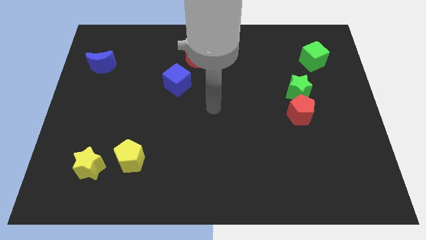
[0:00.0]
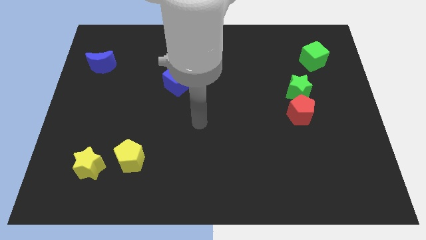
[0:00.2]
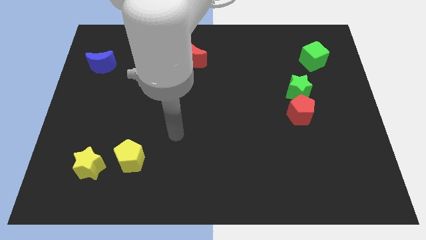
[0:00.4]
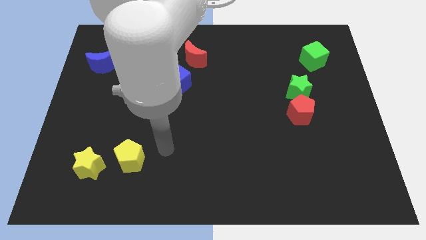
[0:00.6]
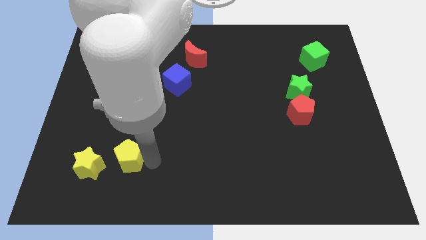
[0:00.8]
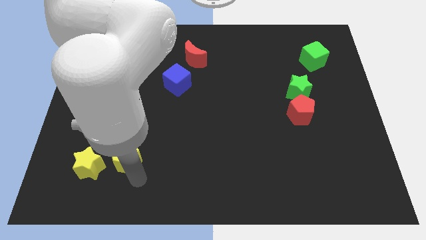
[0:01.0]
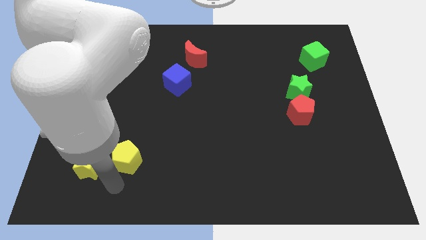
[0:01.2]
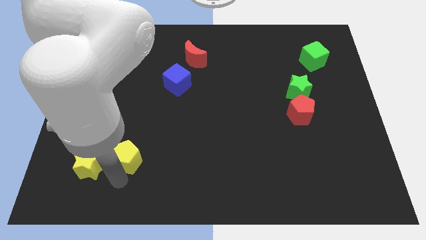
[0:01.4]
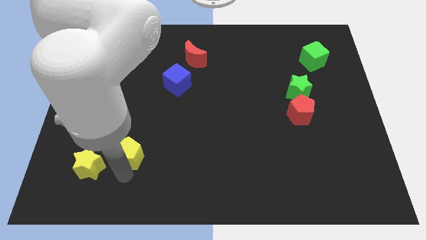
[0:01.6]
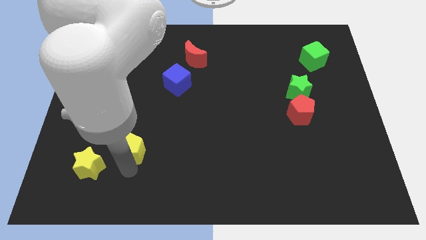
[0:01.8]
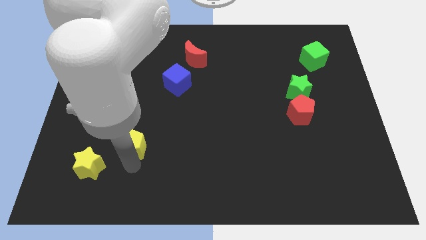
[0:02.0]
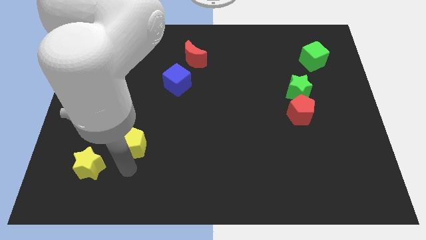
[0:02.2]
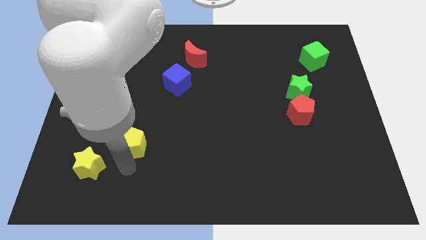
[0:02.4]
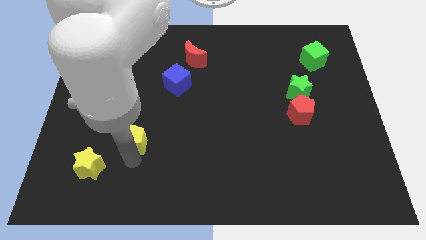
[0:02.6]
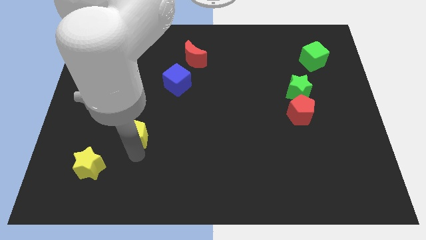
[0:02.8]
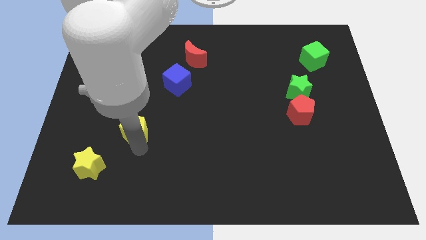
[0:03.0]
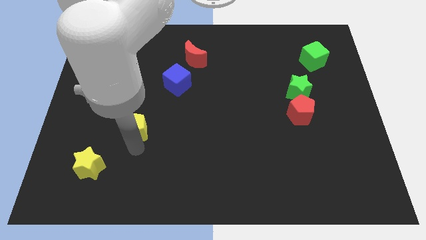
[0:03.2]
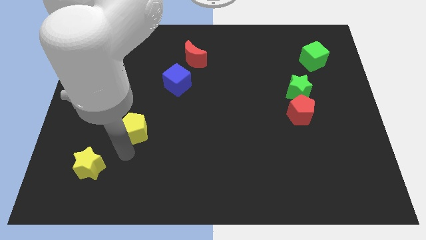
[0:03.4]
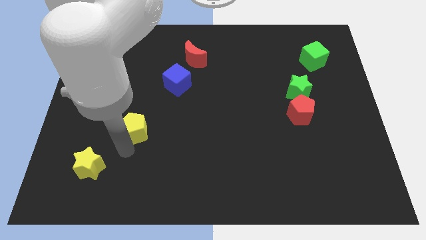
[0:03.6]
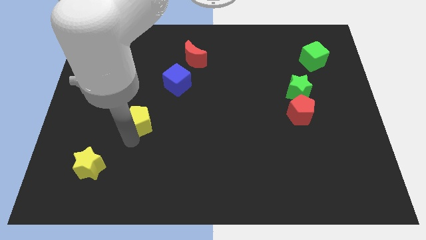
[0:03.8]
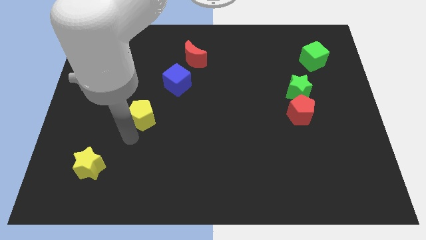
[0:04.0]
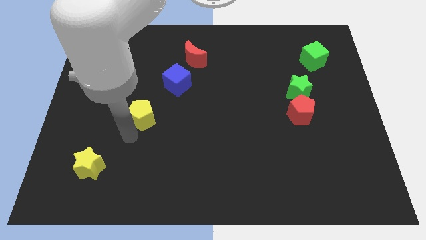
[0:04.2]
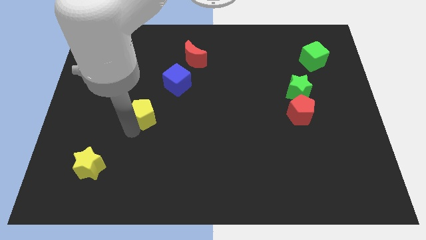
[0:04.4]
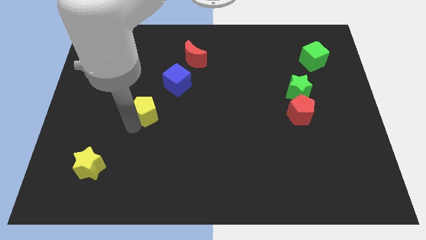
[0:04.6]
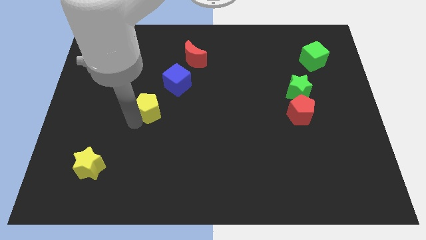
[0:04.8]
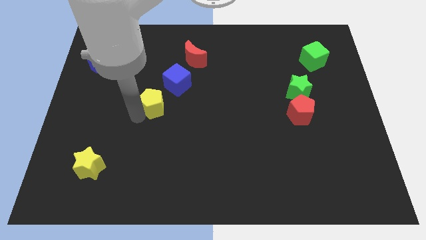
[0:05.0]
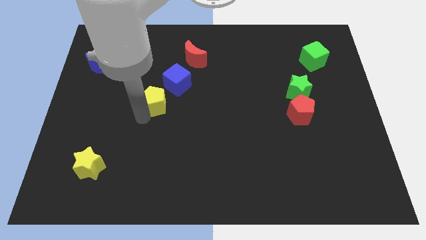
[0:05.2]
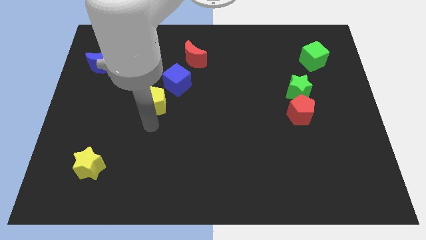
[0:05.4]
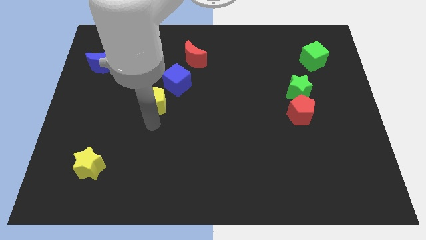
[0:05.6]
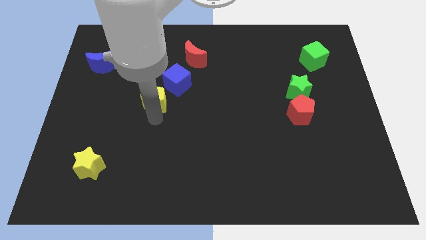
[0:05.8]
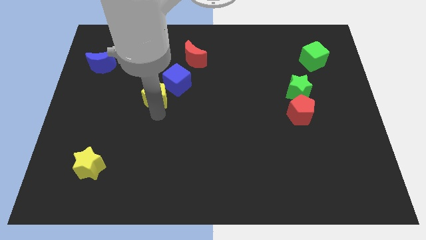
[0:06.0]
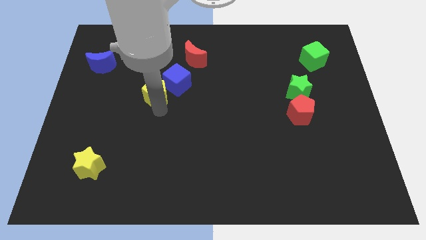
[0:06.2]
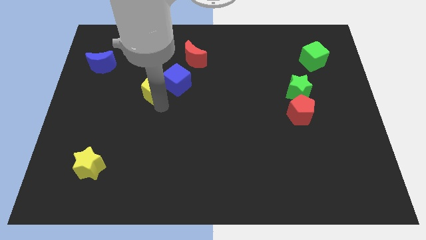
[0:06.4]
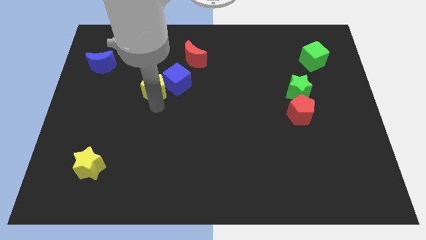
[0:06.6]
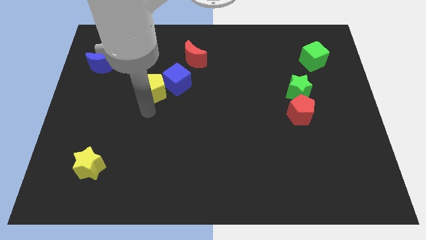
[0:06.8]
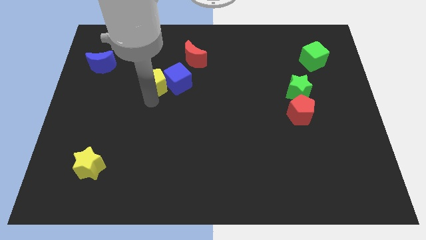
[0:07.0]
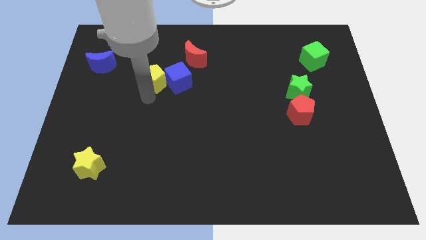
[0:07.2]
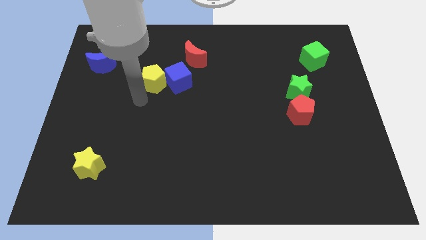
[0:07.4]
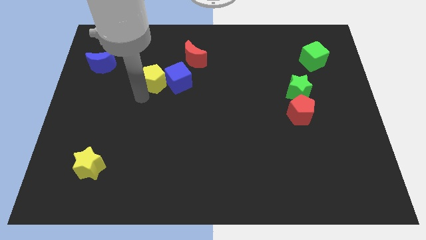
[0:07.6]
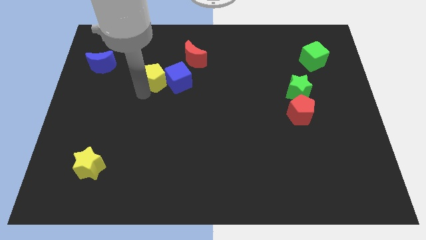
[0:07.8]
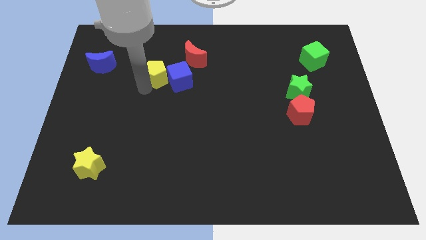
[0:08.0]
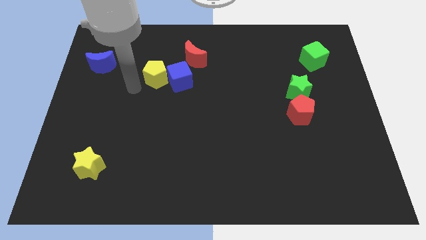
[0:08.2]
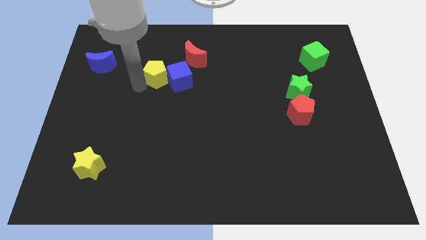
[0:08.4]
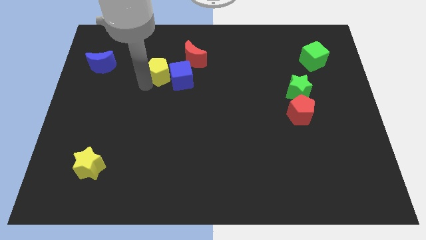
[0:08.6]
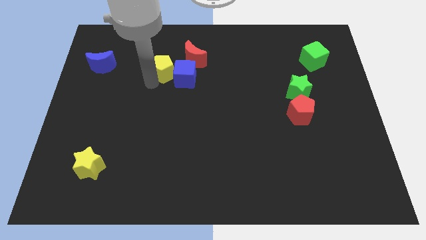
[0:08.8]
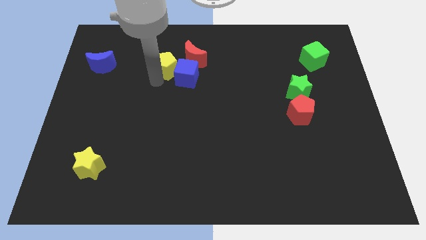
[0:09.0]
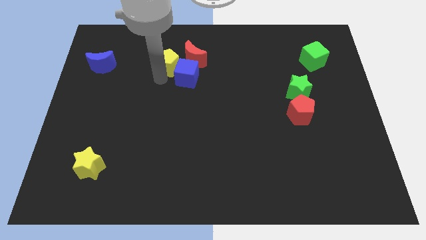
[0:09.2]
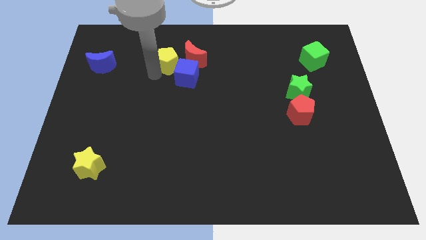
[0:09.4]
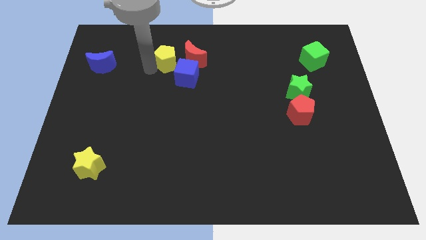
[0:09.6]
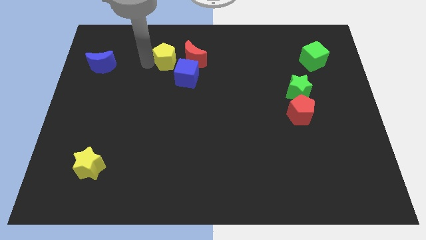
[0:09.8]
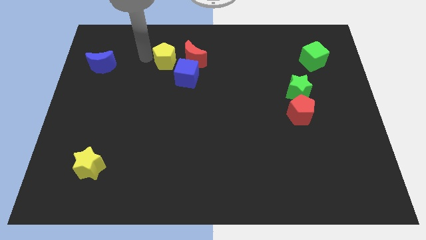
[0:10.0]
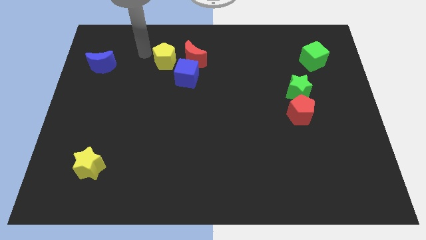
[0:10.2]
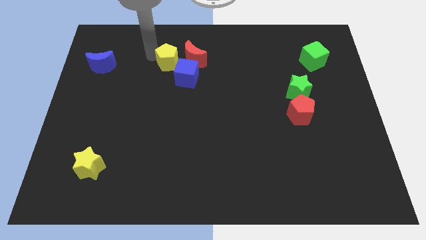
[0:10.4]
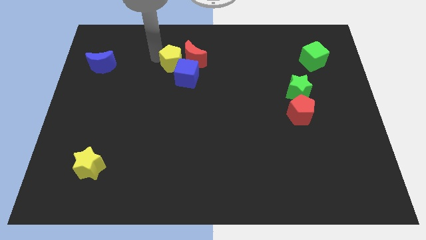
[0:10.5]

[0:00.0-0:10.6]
move the yellow pentagon to the red moon

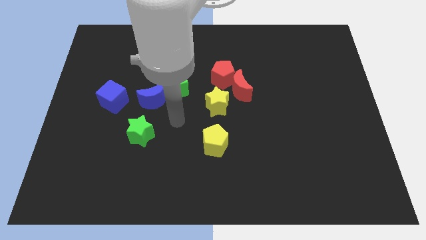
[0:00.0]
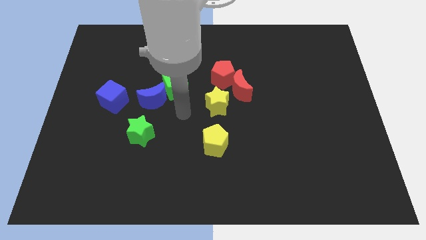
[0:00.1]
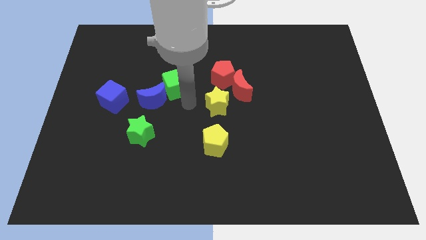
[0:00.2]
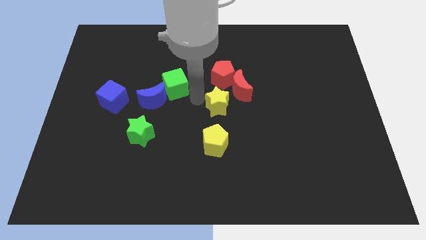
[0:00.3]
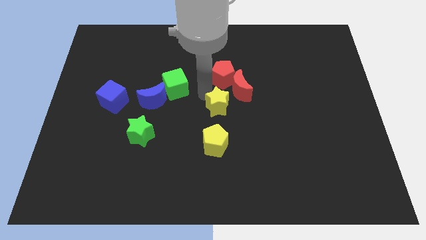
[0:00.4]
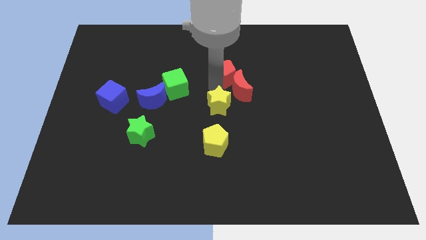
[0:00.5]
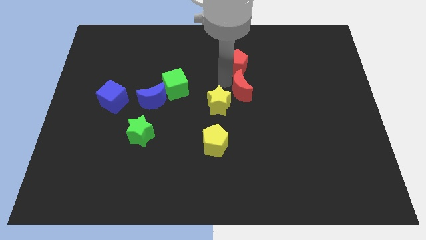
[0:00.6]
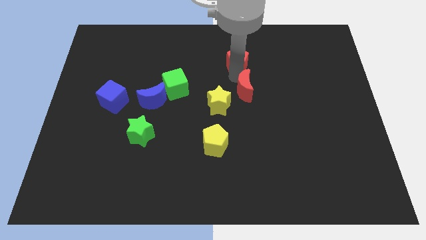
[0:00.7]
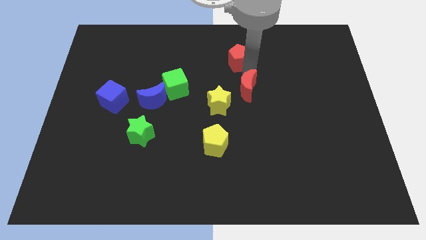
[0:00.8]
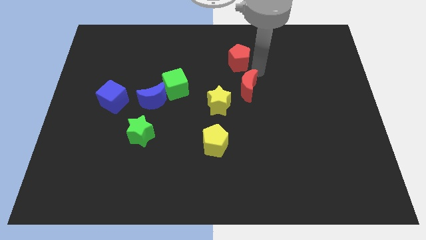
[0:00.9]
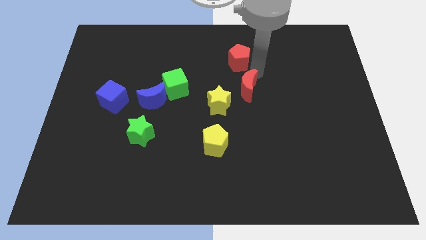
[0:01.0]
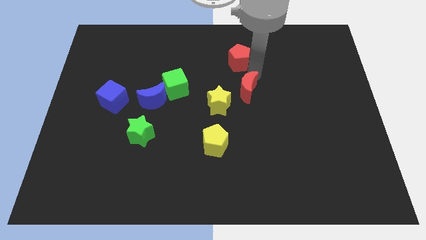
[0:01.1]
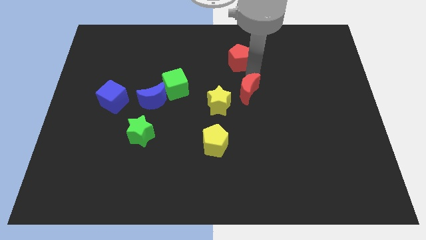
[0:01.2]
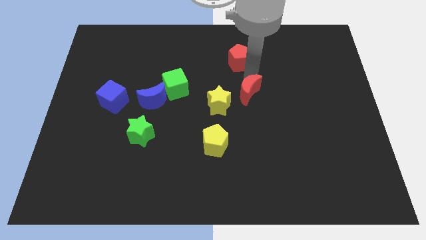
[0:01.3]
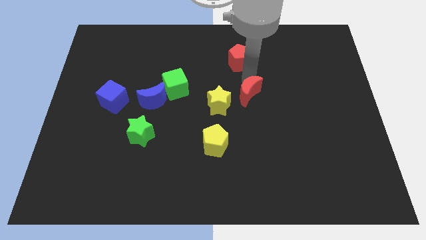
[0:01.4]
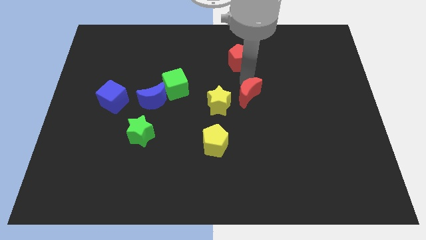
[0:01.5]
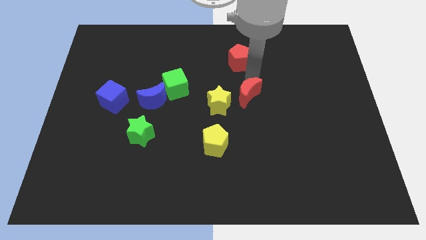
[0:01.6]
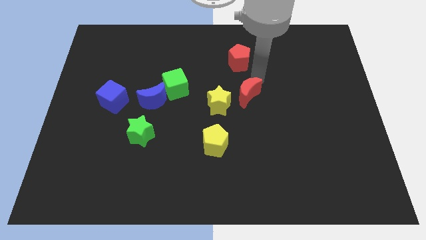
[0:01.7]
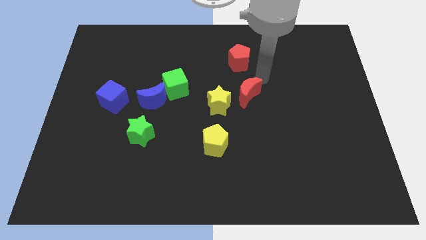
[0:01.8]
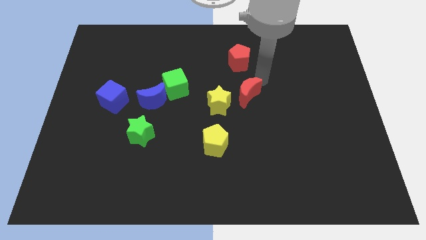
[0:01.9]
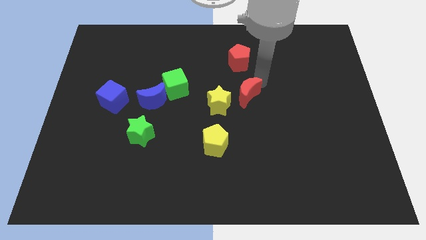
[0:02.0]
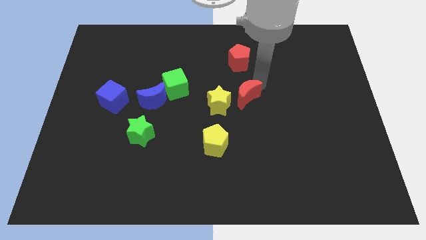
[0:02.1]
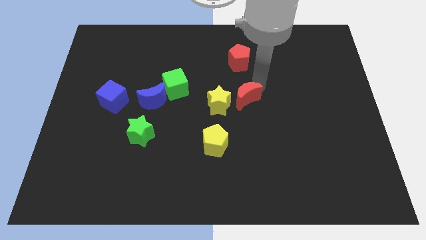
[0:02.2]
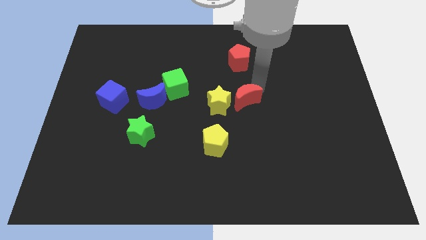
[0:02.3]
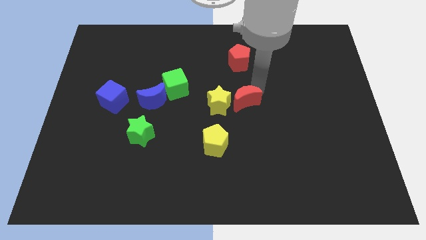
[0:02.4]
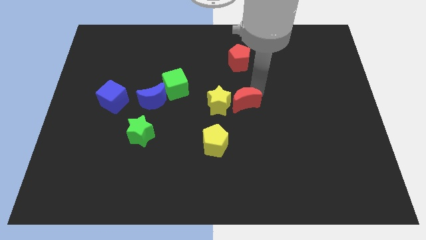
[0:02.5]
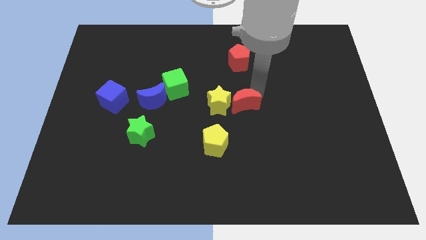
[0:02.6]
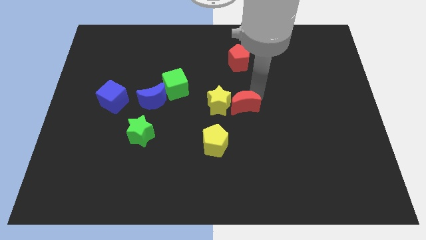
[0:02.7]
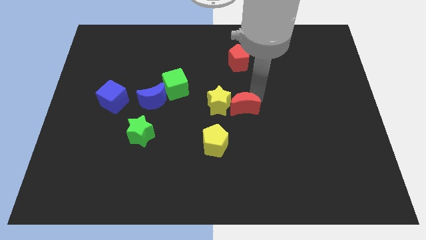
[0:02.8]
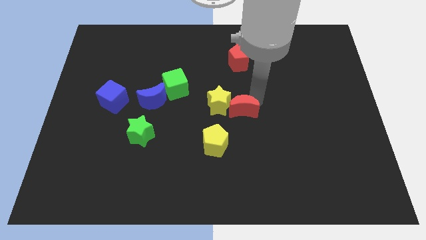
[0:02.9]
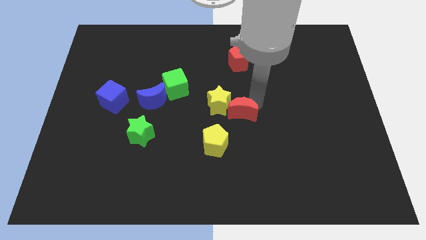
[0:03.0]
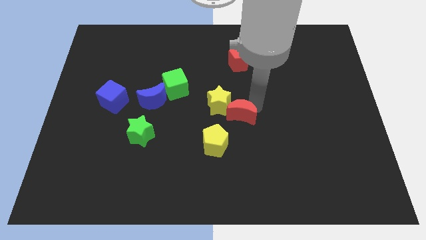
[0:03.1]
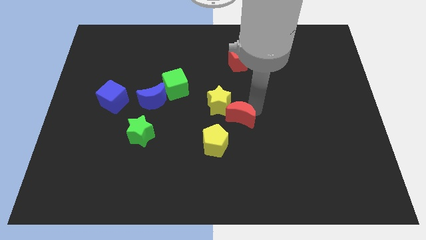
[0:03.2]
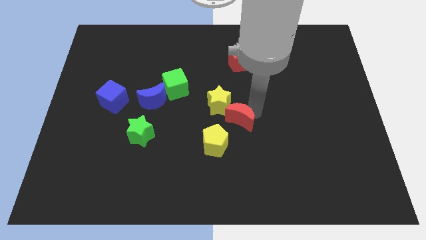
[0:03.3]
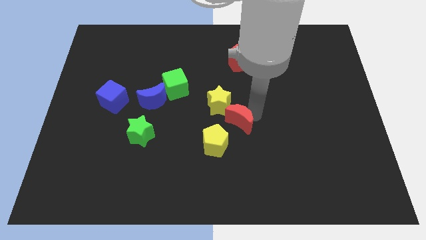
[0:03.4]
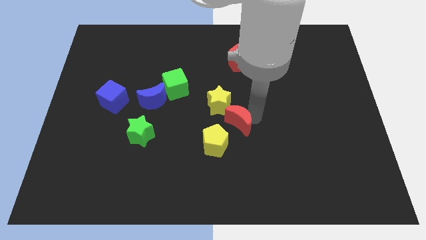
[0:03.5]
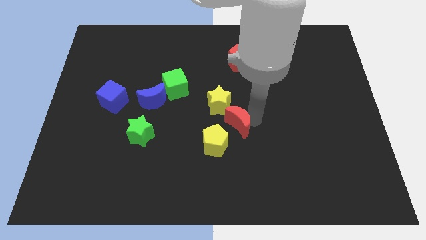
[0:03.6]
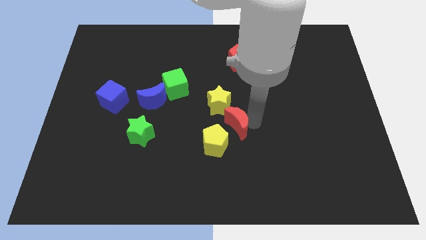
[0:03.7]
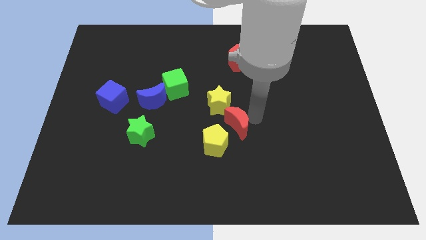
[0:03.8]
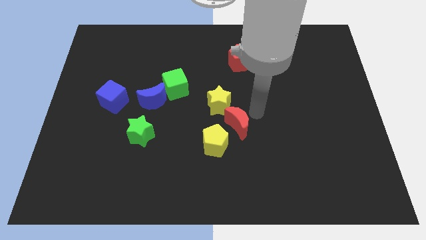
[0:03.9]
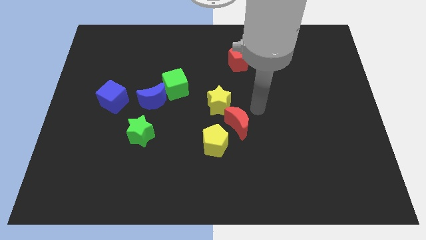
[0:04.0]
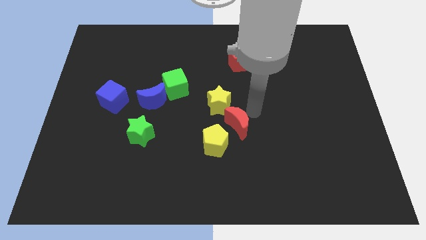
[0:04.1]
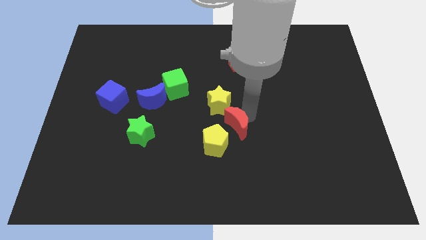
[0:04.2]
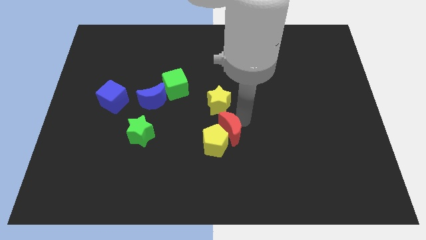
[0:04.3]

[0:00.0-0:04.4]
slide the red moon to the yellow pentagon
